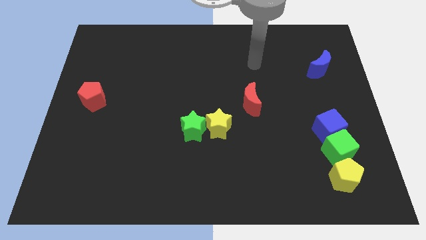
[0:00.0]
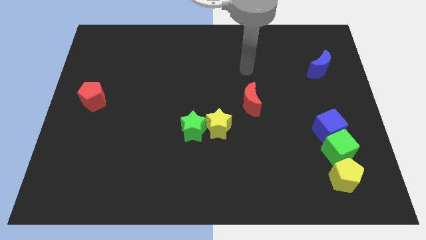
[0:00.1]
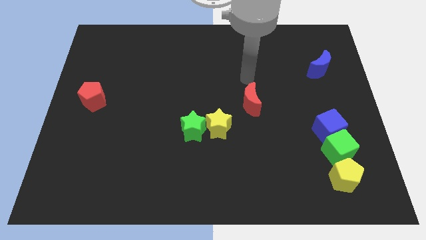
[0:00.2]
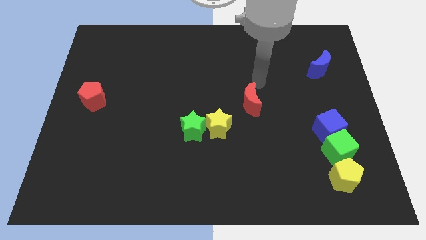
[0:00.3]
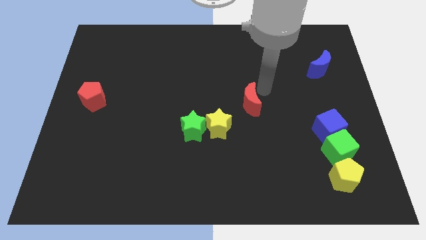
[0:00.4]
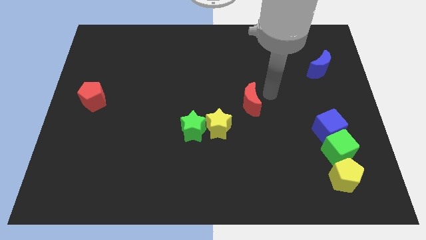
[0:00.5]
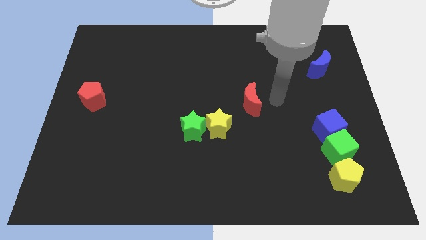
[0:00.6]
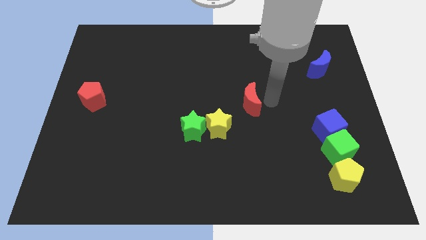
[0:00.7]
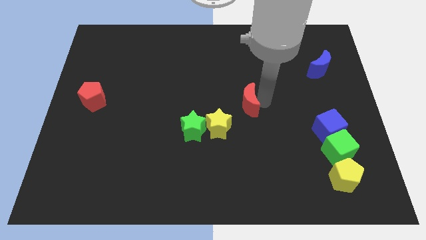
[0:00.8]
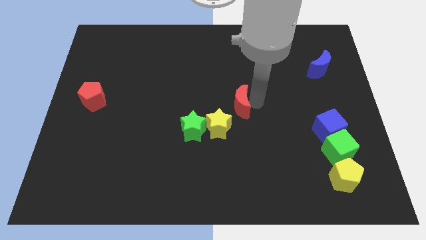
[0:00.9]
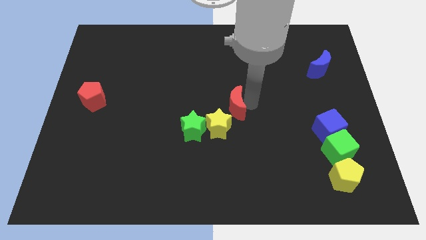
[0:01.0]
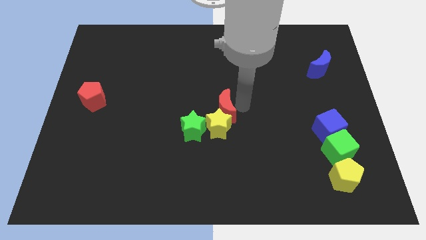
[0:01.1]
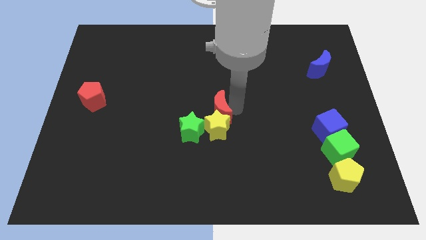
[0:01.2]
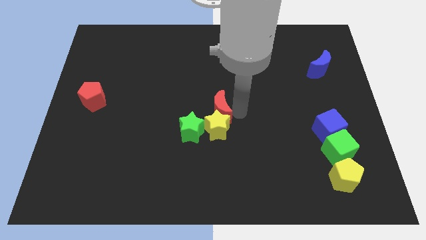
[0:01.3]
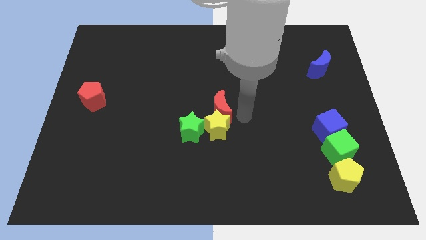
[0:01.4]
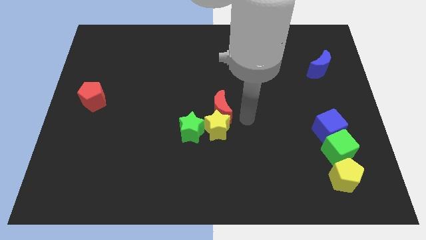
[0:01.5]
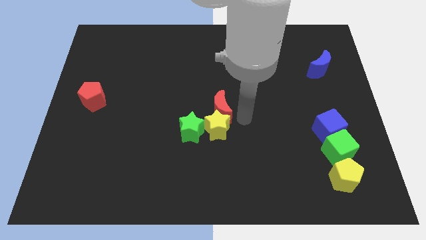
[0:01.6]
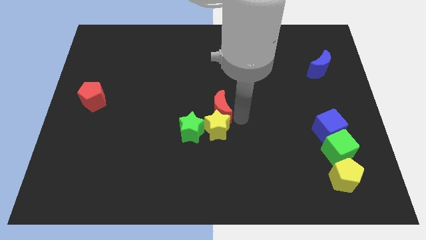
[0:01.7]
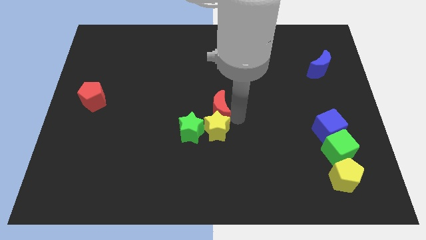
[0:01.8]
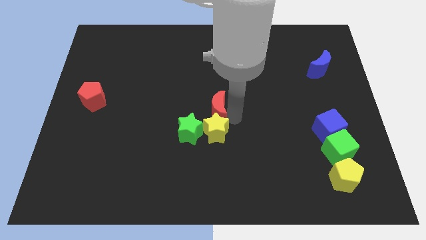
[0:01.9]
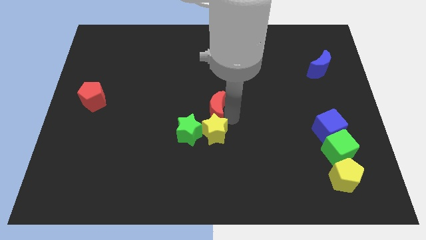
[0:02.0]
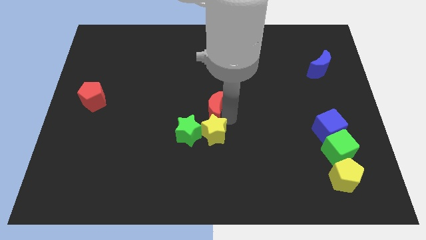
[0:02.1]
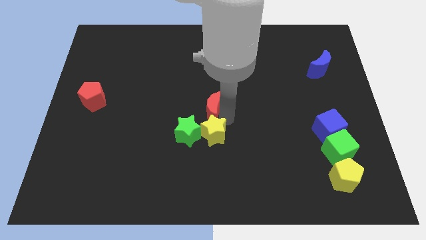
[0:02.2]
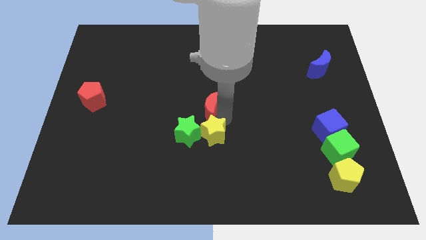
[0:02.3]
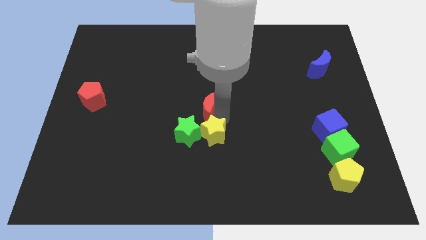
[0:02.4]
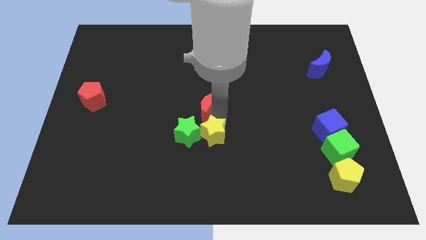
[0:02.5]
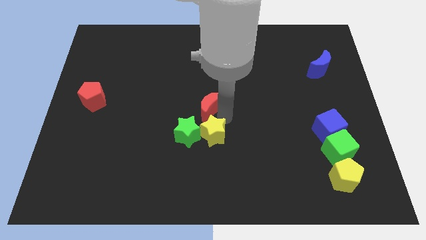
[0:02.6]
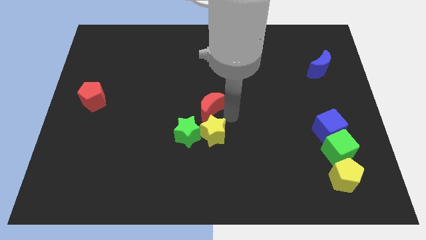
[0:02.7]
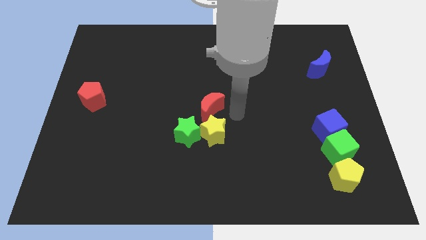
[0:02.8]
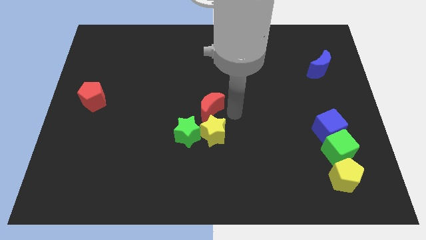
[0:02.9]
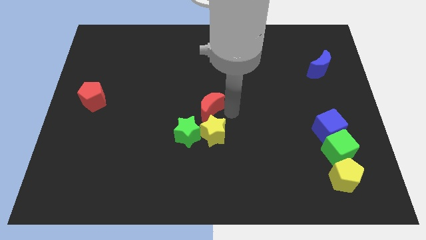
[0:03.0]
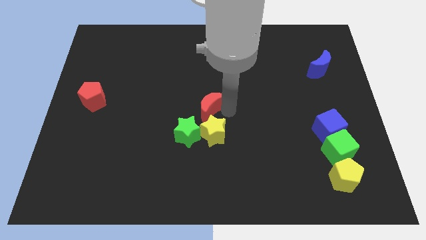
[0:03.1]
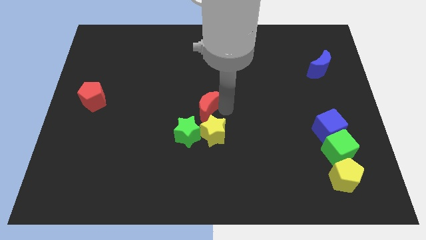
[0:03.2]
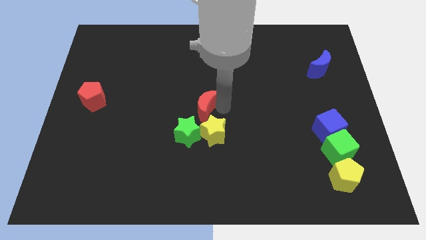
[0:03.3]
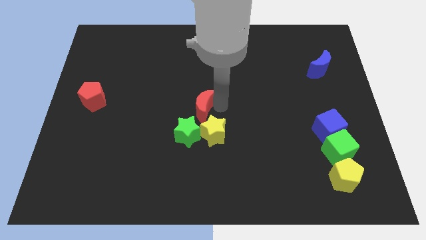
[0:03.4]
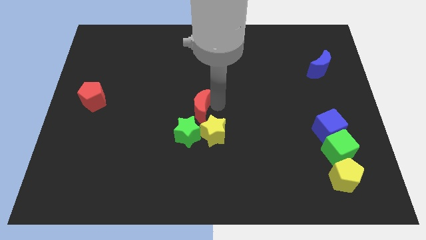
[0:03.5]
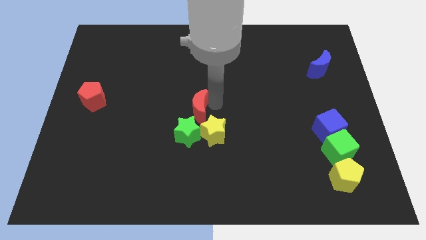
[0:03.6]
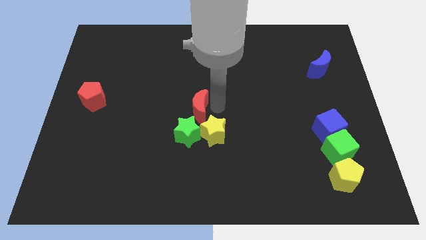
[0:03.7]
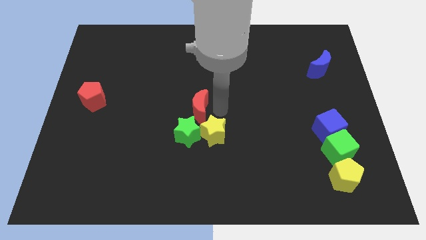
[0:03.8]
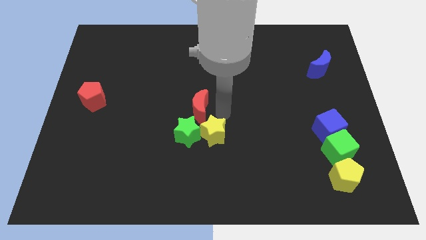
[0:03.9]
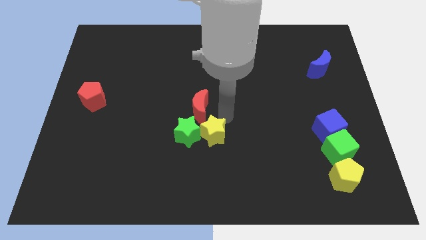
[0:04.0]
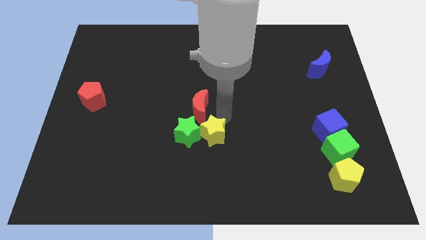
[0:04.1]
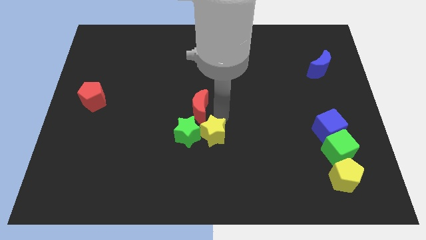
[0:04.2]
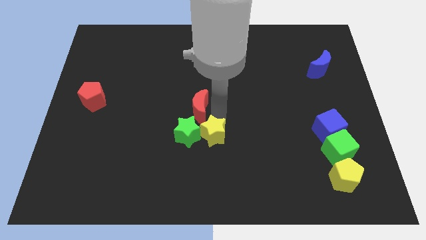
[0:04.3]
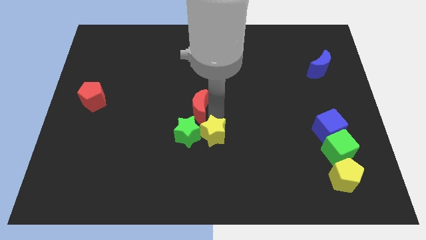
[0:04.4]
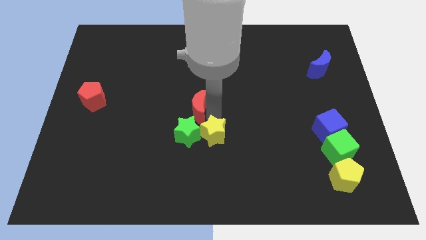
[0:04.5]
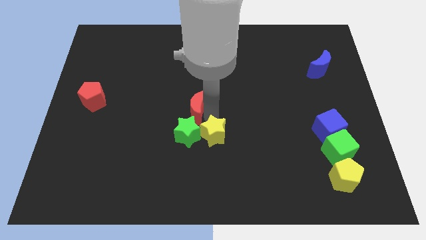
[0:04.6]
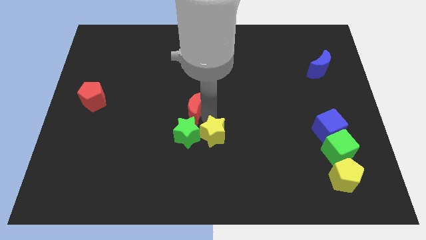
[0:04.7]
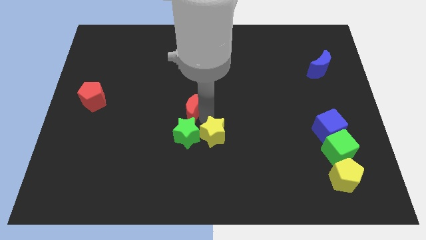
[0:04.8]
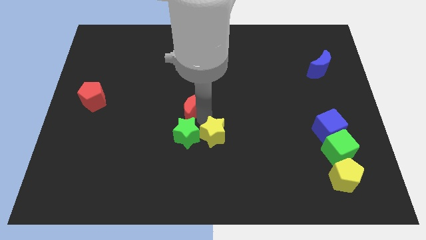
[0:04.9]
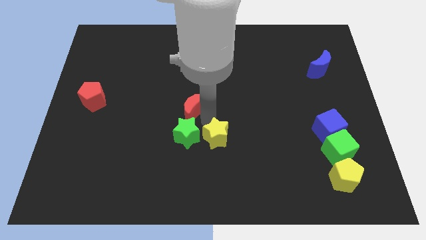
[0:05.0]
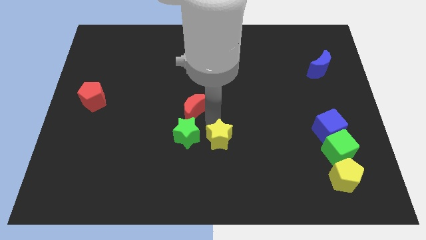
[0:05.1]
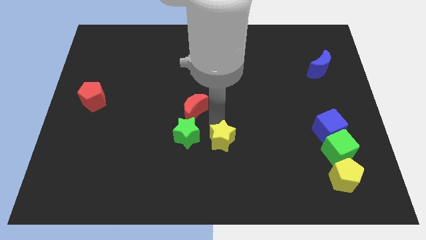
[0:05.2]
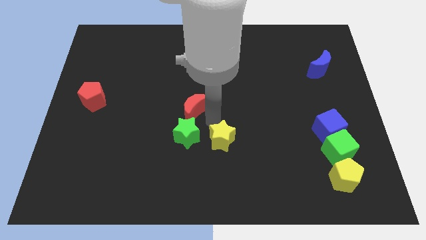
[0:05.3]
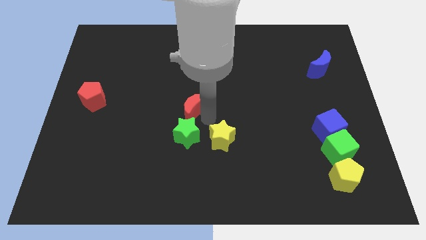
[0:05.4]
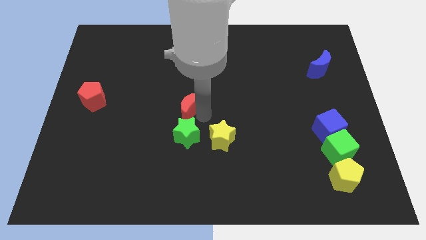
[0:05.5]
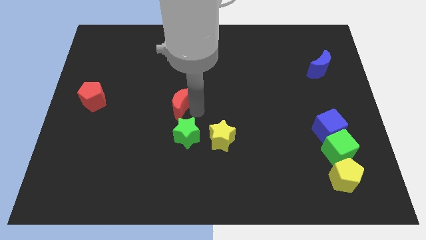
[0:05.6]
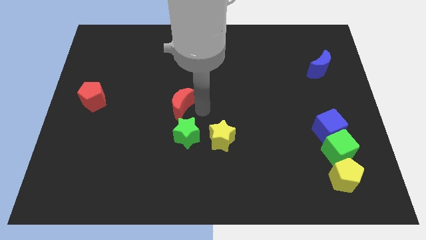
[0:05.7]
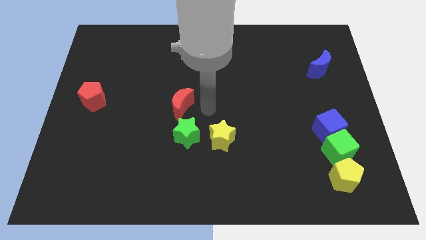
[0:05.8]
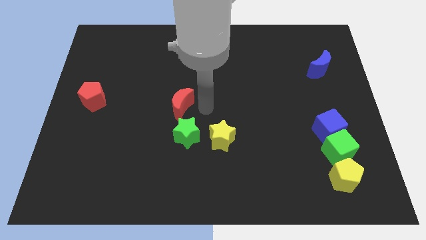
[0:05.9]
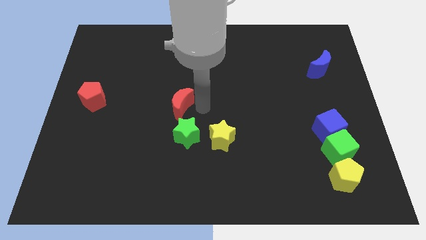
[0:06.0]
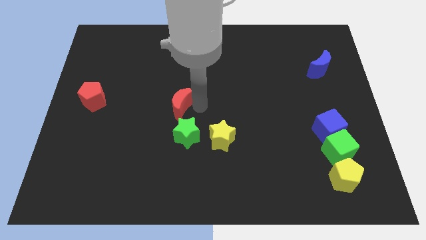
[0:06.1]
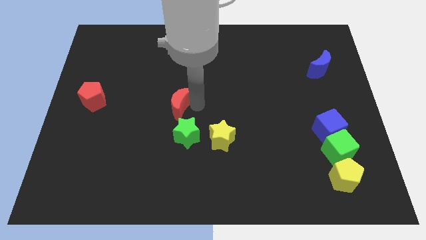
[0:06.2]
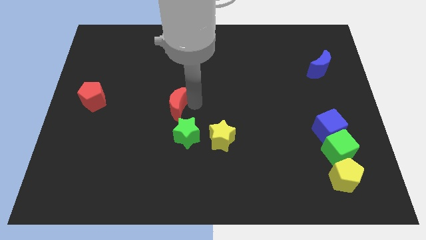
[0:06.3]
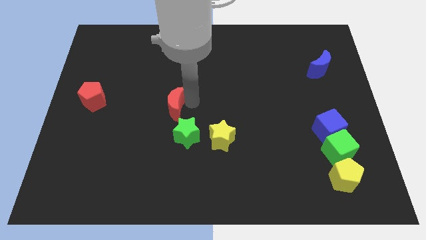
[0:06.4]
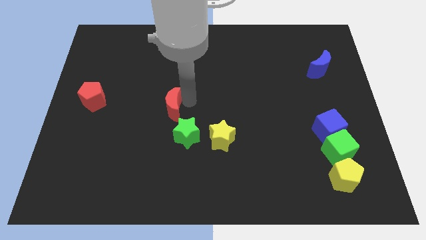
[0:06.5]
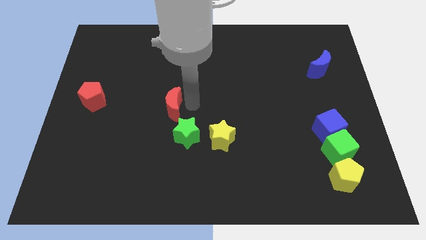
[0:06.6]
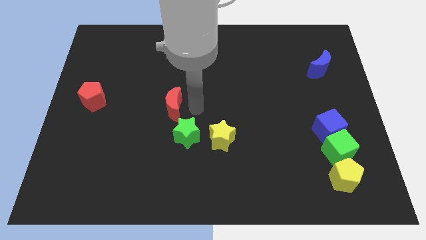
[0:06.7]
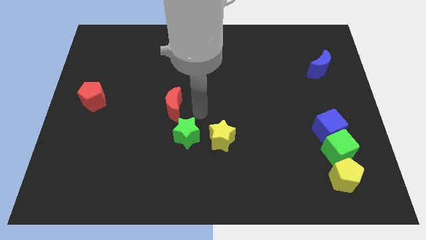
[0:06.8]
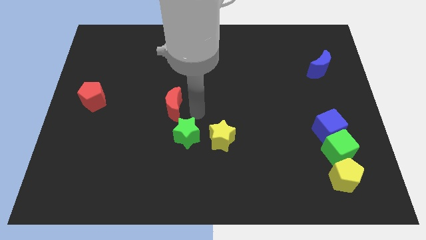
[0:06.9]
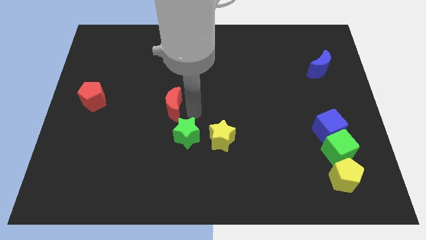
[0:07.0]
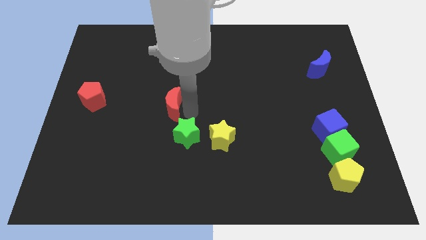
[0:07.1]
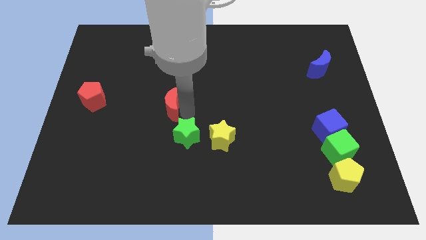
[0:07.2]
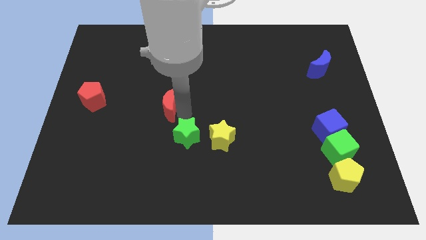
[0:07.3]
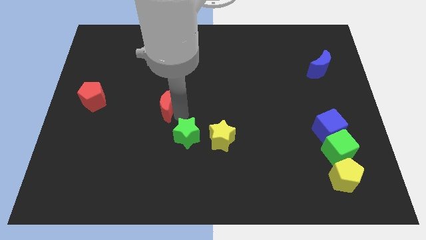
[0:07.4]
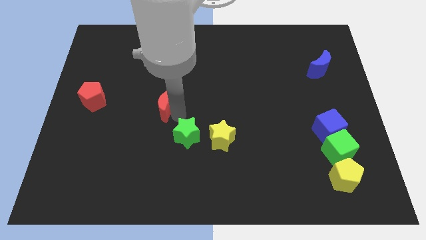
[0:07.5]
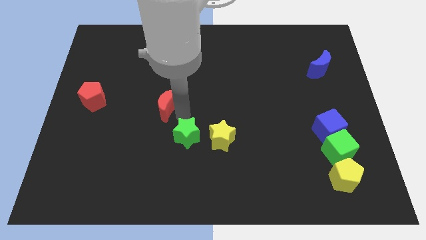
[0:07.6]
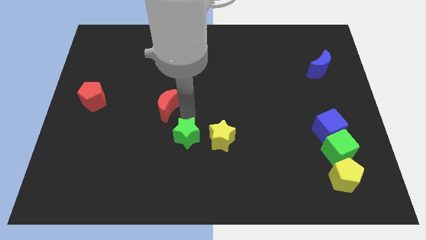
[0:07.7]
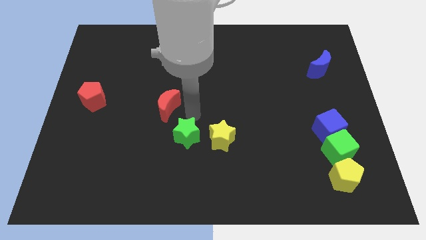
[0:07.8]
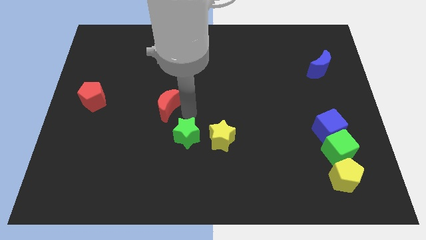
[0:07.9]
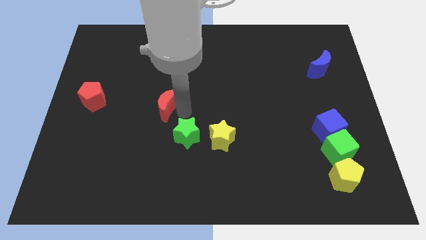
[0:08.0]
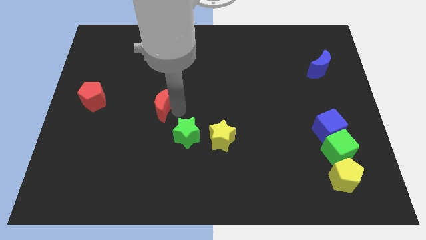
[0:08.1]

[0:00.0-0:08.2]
push the red moon to the left
